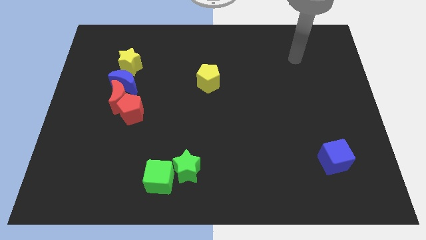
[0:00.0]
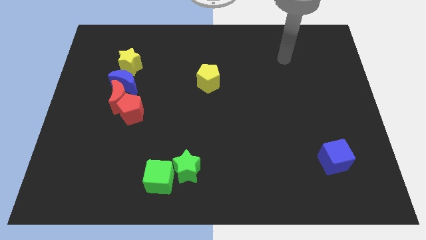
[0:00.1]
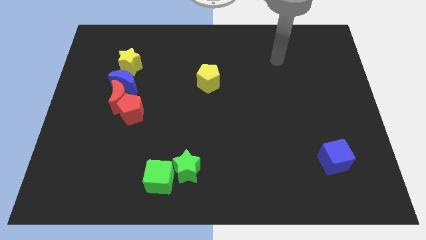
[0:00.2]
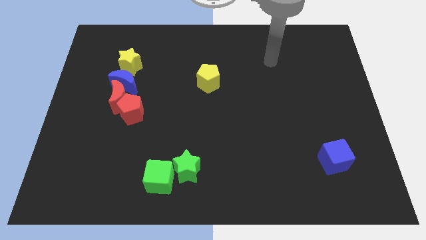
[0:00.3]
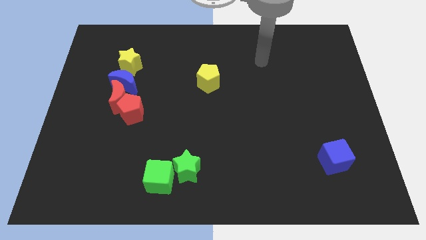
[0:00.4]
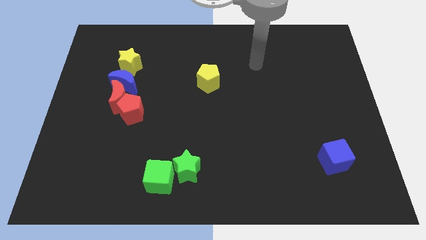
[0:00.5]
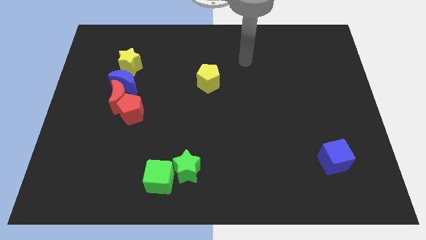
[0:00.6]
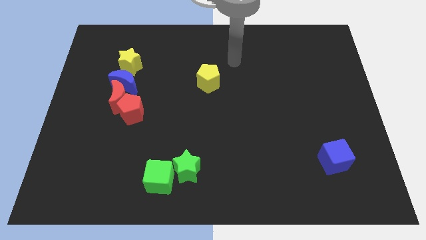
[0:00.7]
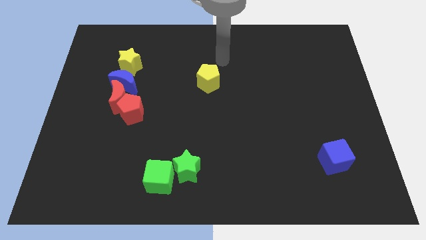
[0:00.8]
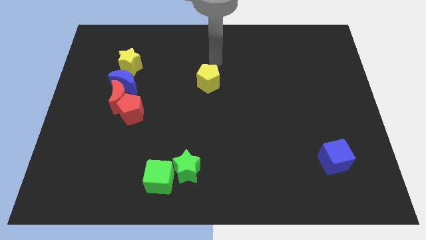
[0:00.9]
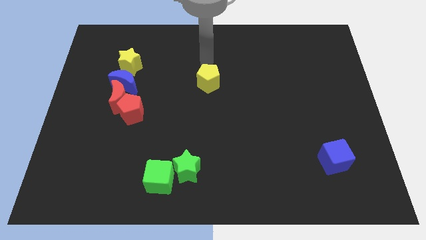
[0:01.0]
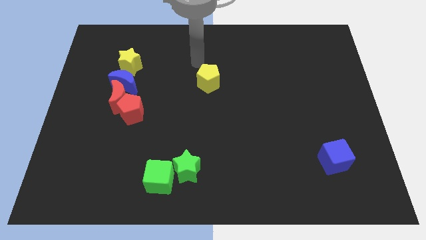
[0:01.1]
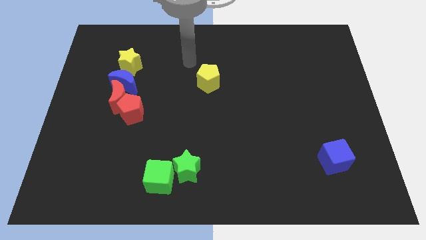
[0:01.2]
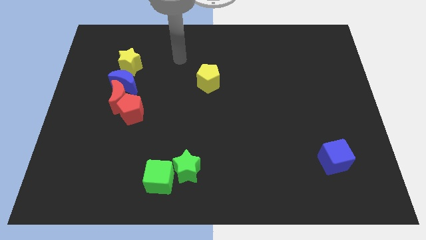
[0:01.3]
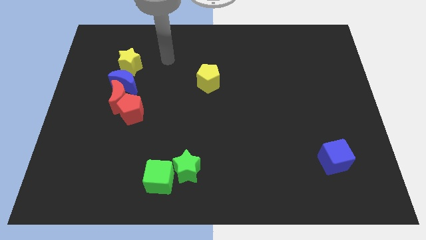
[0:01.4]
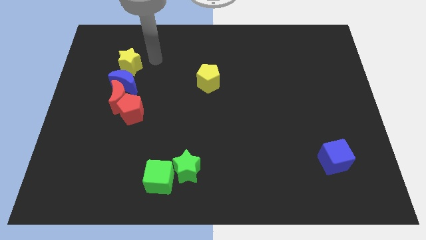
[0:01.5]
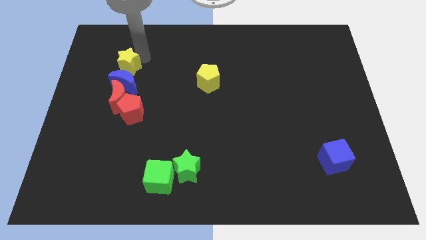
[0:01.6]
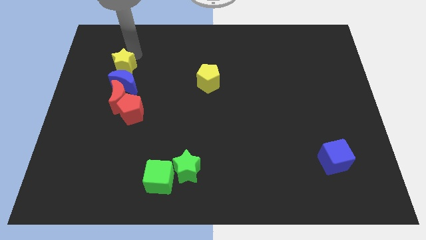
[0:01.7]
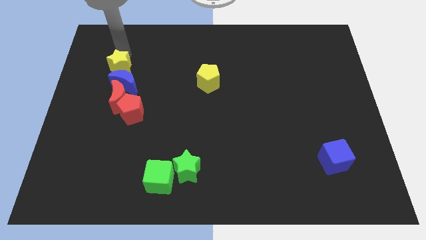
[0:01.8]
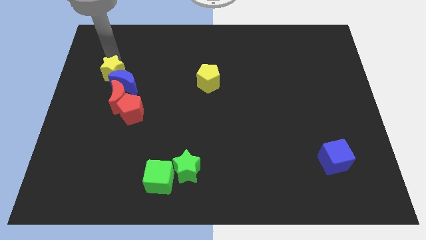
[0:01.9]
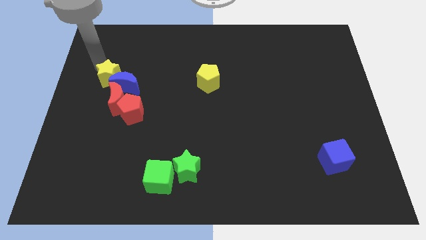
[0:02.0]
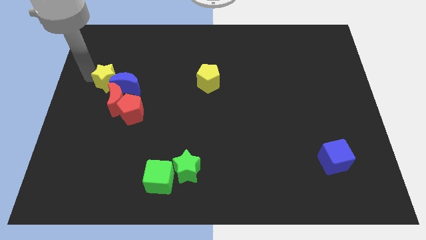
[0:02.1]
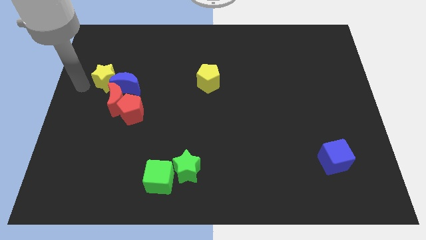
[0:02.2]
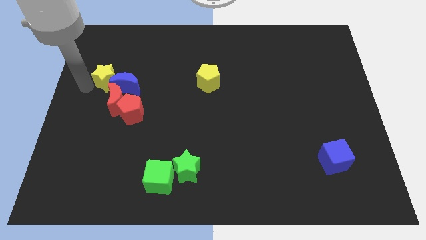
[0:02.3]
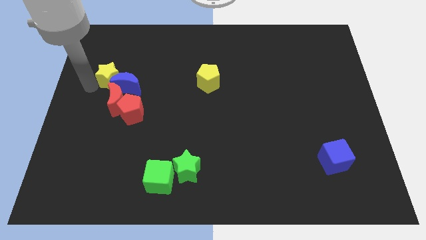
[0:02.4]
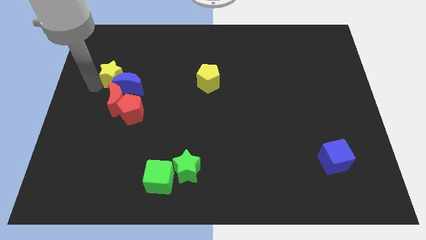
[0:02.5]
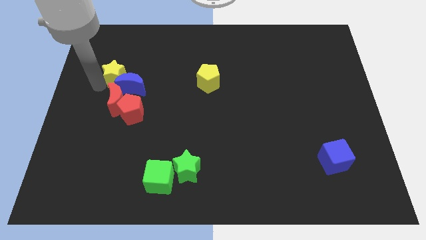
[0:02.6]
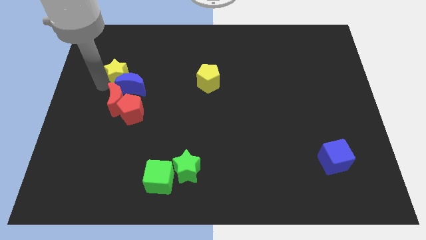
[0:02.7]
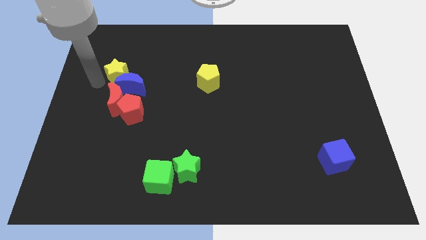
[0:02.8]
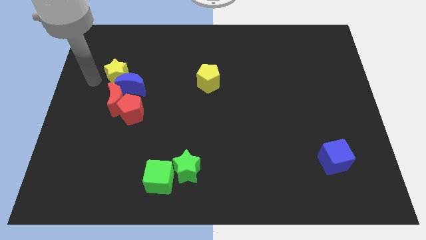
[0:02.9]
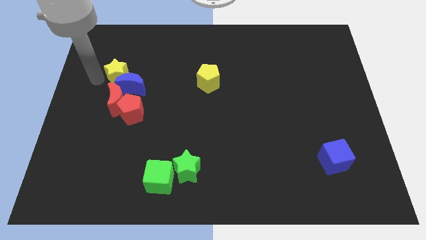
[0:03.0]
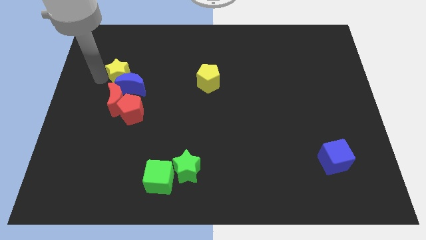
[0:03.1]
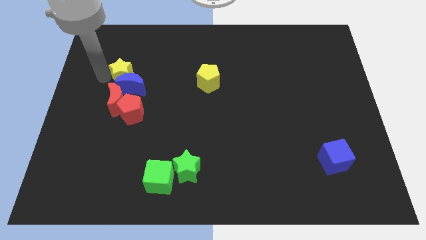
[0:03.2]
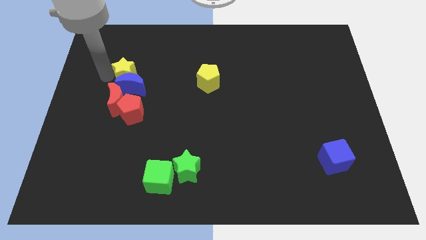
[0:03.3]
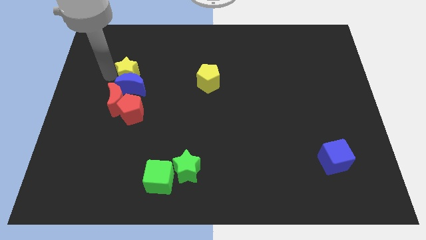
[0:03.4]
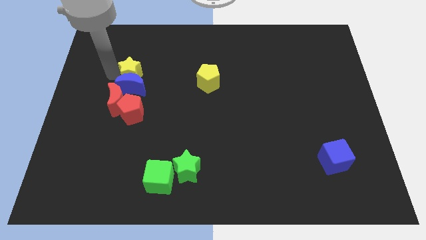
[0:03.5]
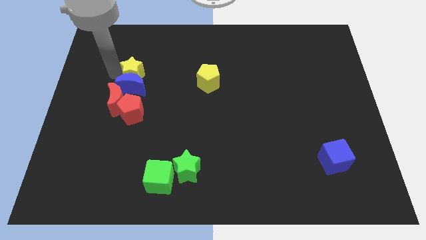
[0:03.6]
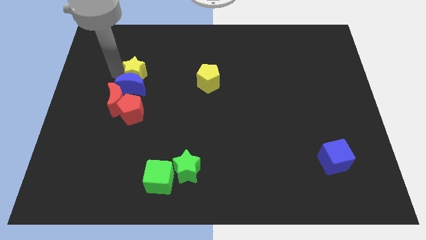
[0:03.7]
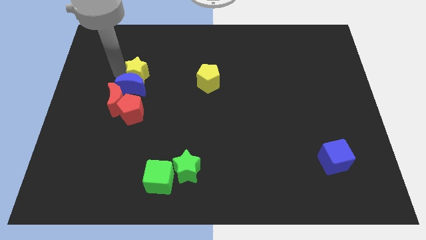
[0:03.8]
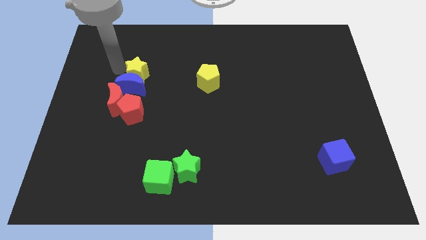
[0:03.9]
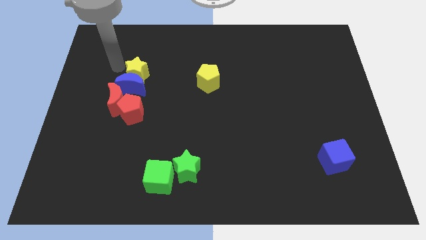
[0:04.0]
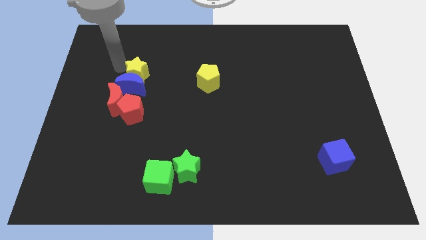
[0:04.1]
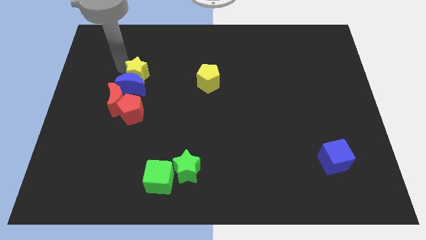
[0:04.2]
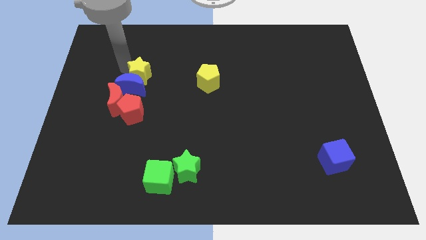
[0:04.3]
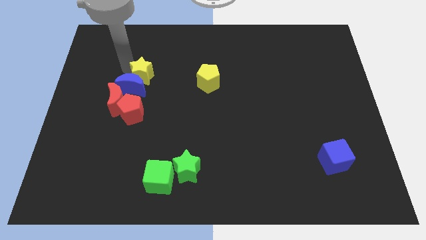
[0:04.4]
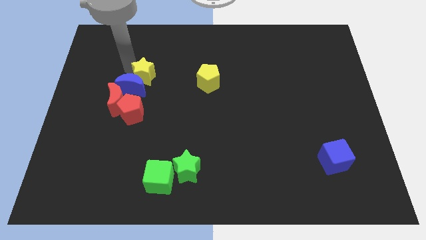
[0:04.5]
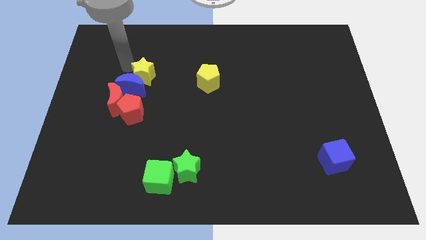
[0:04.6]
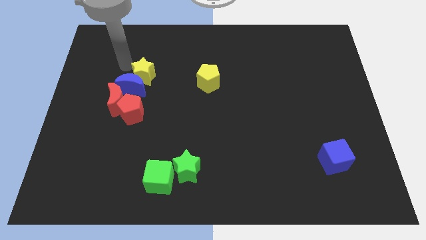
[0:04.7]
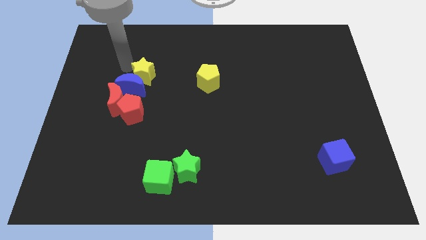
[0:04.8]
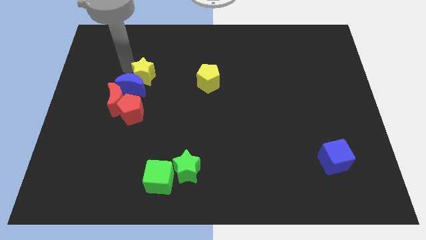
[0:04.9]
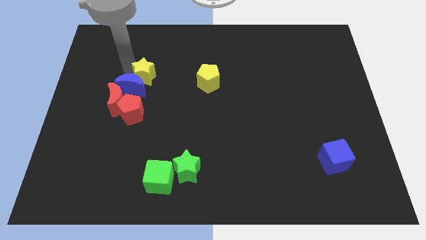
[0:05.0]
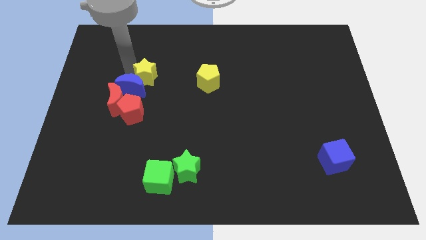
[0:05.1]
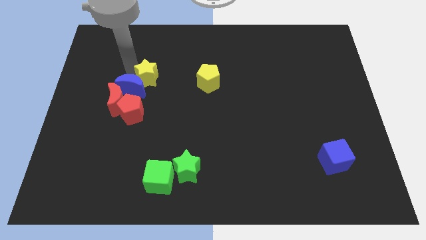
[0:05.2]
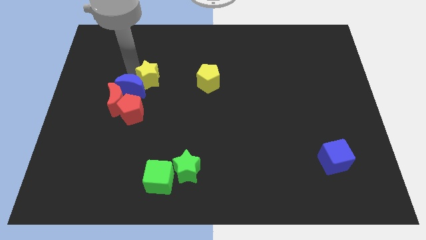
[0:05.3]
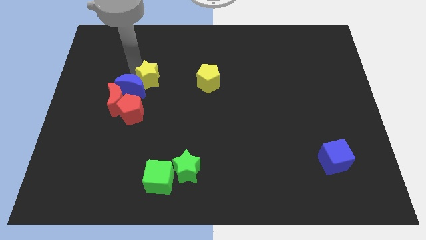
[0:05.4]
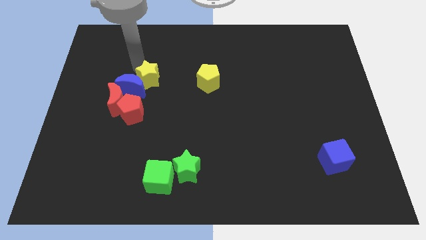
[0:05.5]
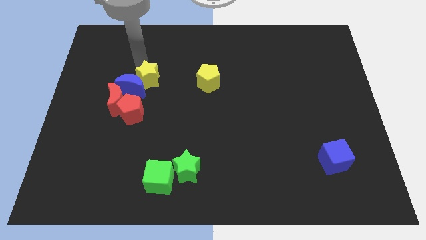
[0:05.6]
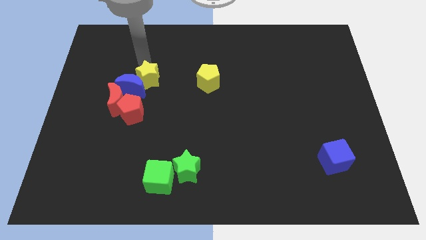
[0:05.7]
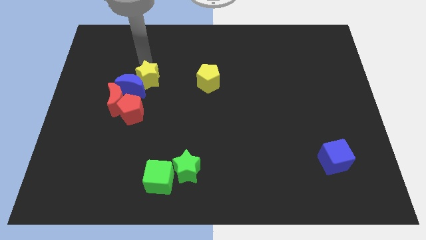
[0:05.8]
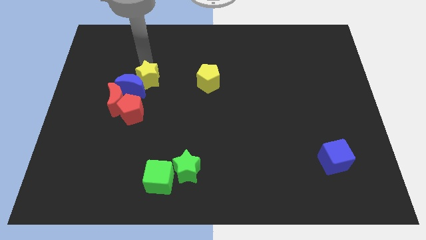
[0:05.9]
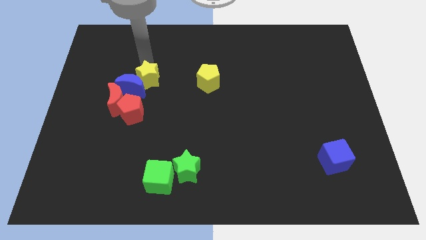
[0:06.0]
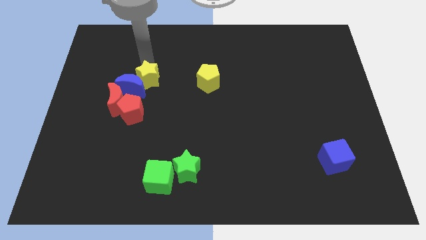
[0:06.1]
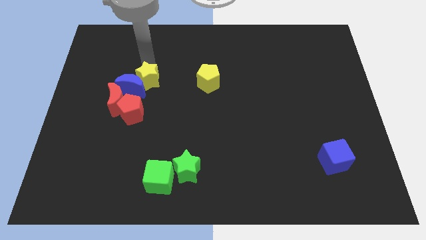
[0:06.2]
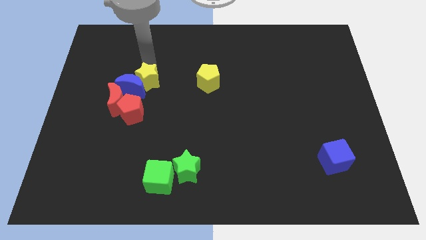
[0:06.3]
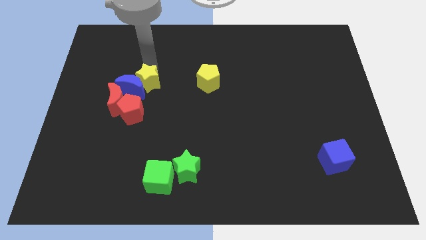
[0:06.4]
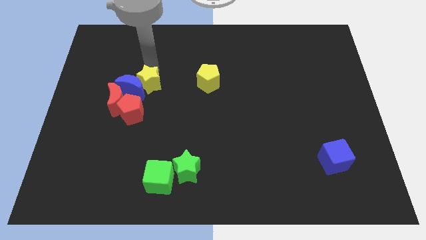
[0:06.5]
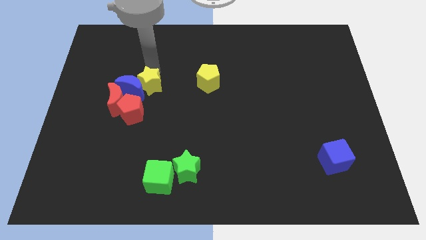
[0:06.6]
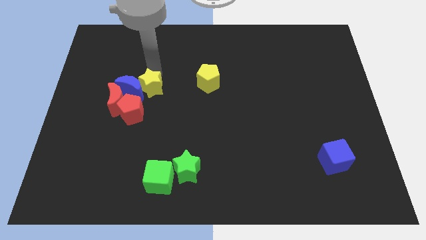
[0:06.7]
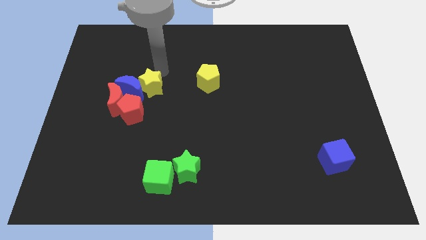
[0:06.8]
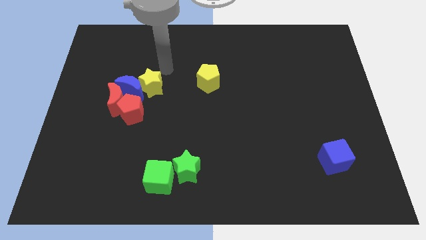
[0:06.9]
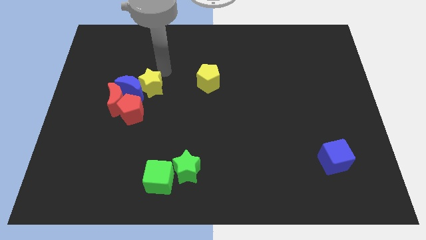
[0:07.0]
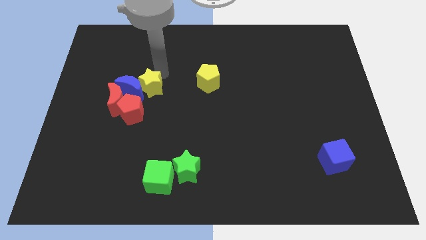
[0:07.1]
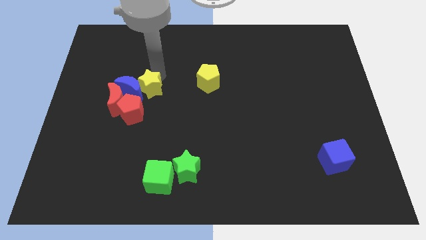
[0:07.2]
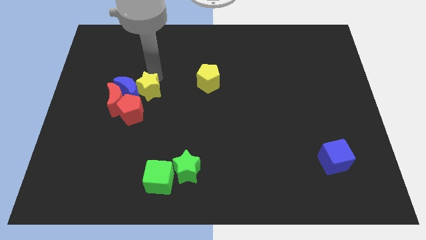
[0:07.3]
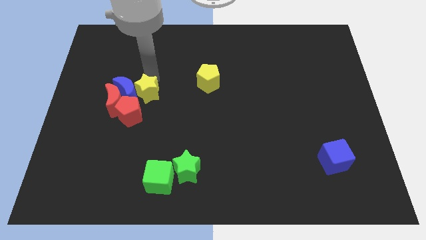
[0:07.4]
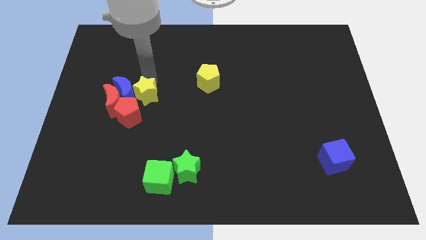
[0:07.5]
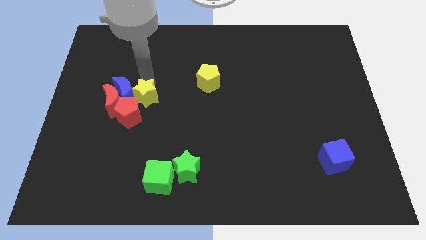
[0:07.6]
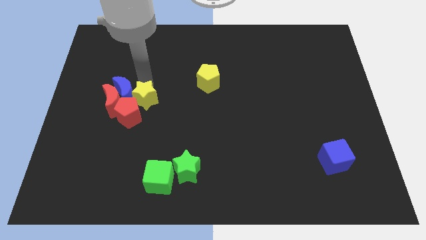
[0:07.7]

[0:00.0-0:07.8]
push the yellow star to the red pentagon
